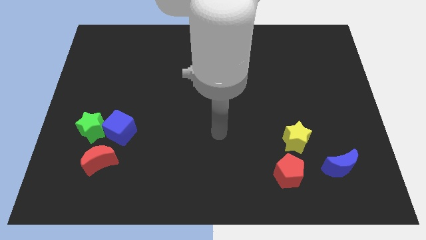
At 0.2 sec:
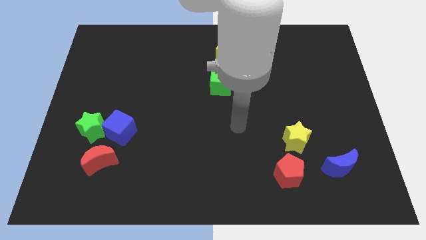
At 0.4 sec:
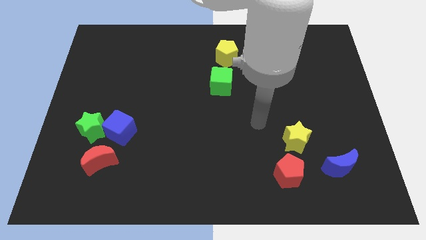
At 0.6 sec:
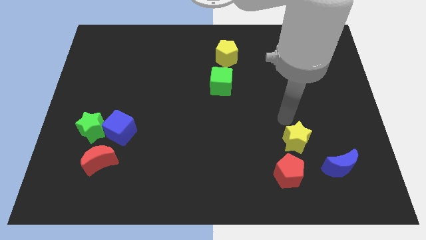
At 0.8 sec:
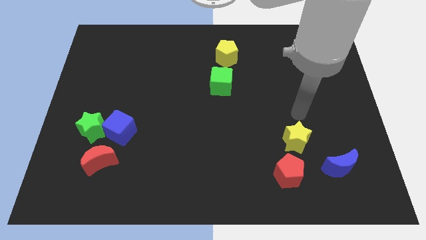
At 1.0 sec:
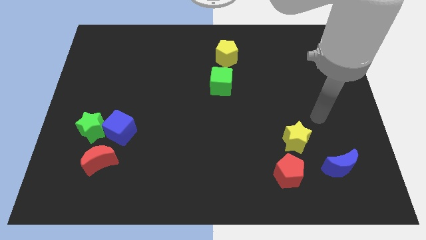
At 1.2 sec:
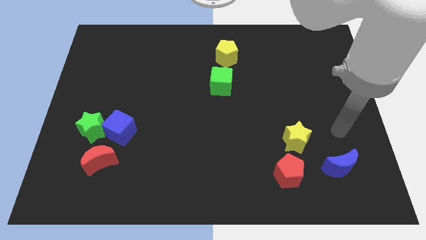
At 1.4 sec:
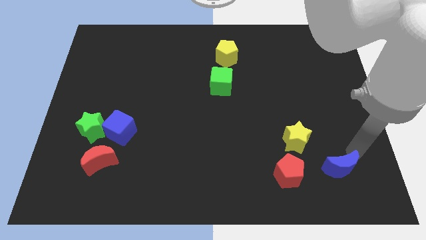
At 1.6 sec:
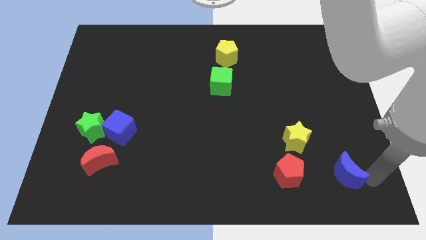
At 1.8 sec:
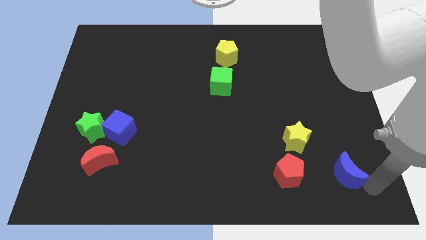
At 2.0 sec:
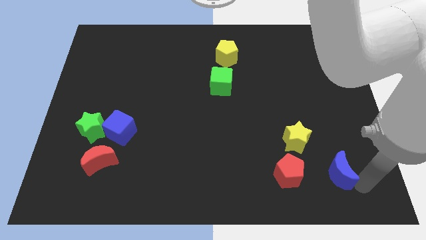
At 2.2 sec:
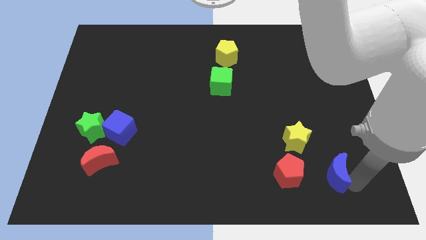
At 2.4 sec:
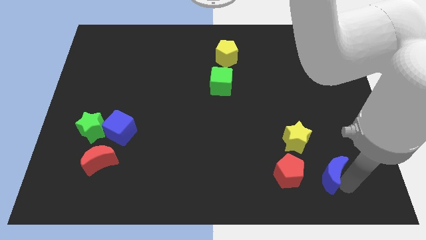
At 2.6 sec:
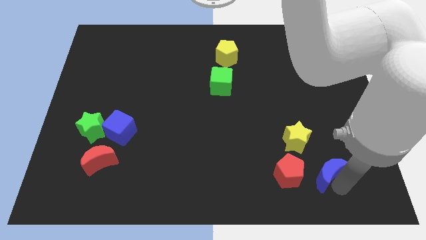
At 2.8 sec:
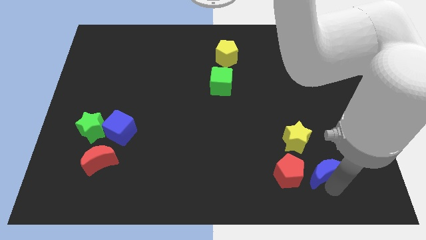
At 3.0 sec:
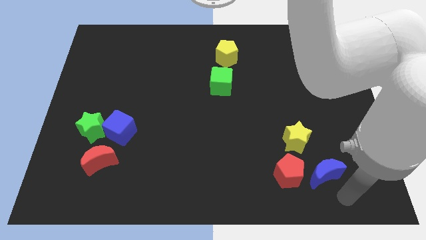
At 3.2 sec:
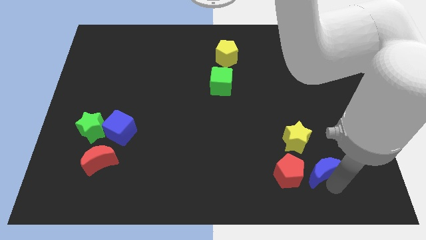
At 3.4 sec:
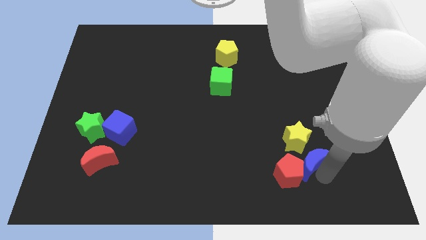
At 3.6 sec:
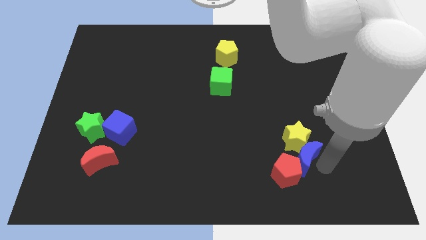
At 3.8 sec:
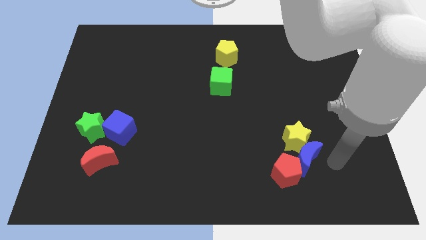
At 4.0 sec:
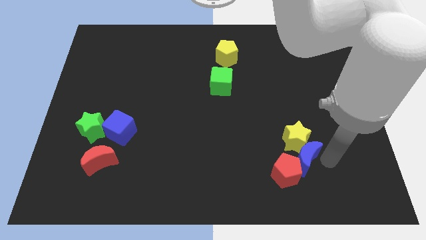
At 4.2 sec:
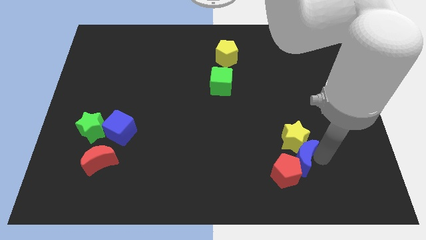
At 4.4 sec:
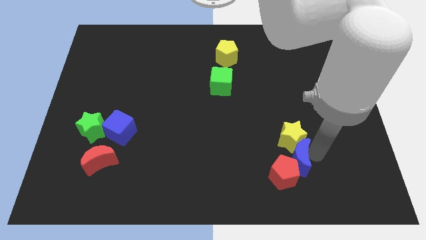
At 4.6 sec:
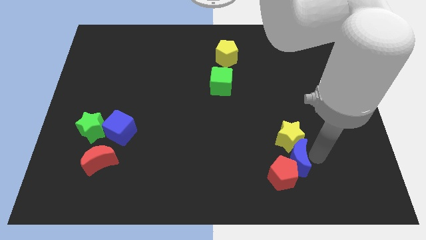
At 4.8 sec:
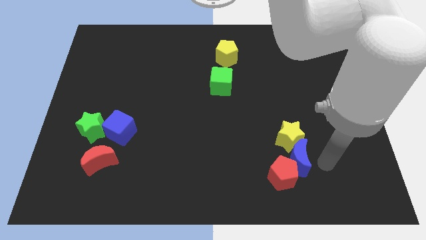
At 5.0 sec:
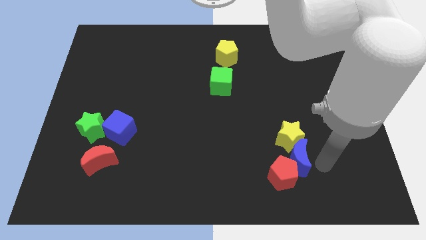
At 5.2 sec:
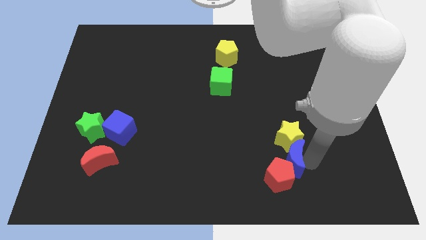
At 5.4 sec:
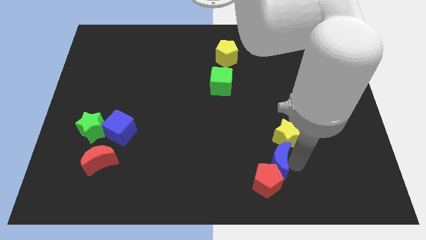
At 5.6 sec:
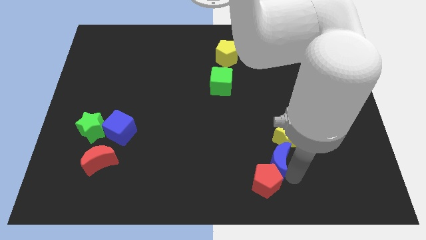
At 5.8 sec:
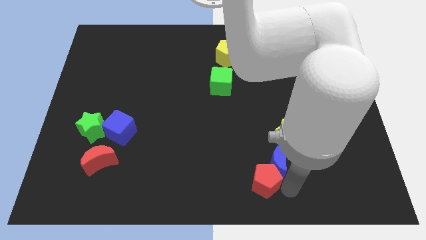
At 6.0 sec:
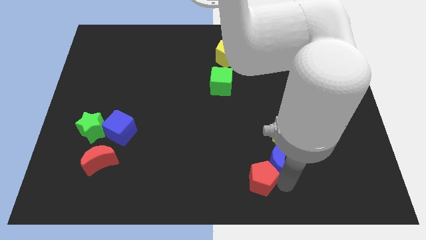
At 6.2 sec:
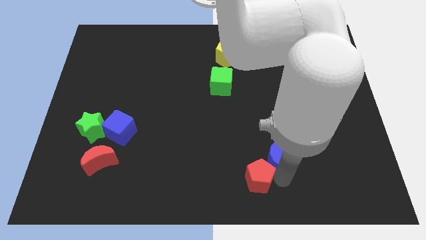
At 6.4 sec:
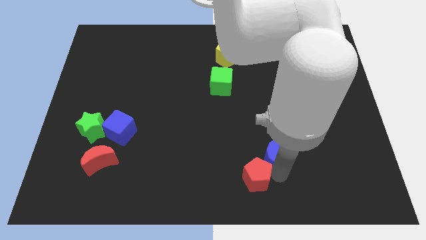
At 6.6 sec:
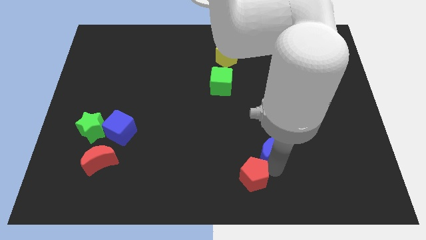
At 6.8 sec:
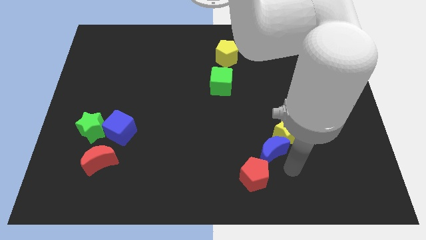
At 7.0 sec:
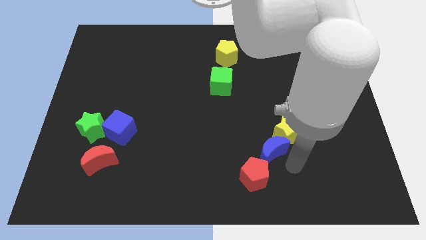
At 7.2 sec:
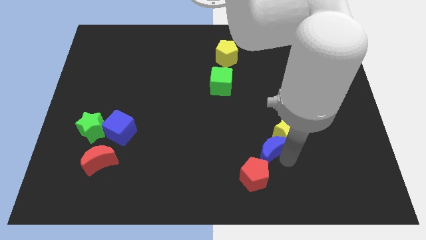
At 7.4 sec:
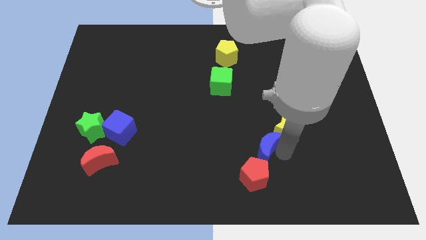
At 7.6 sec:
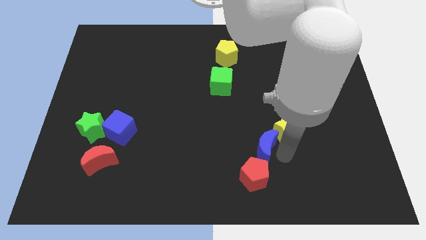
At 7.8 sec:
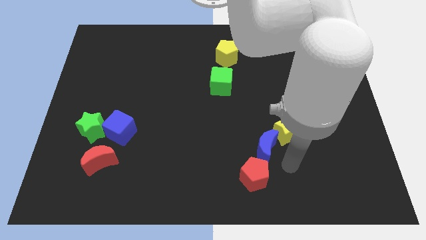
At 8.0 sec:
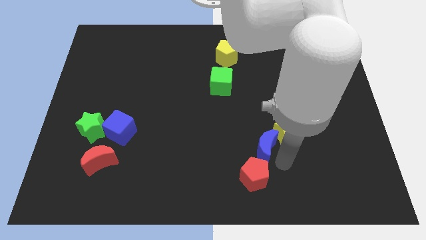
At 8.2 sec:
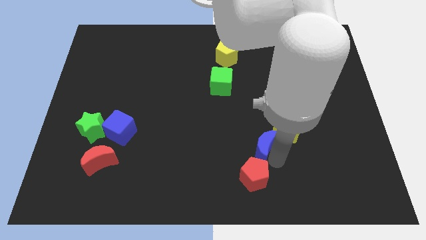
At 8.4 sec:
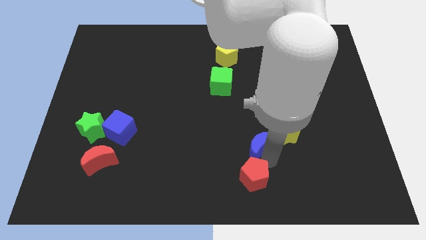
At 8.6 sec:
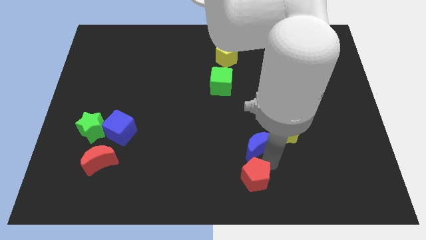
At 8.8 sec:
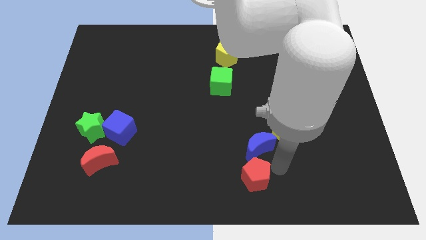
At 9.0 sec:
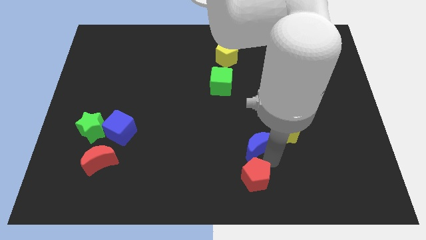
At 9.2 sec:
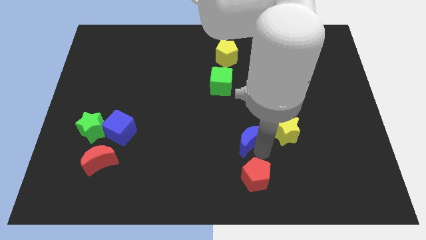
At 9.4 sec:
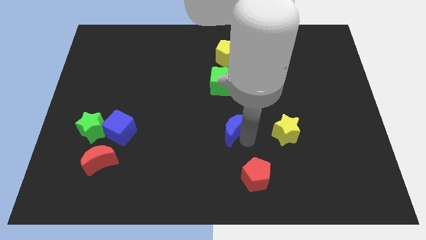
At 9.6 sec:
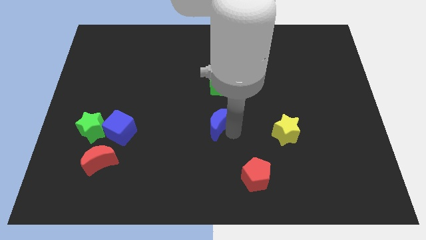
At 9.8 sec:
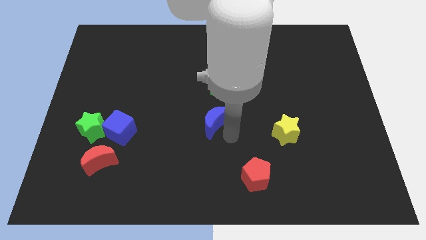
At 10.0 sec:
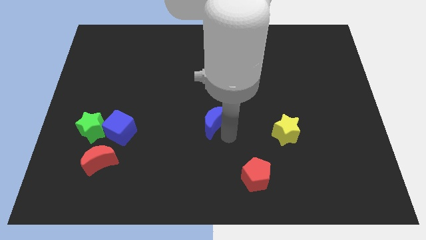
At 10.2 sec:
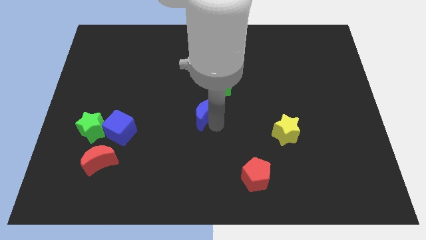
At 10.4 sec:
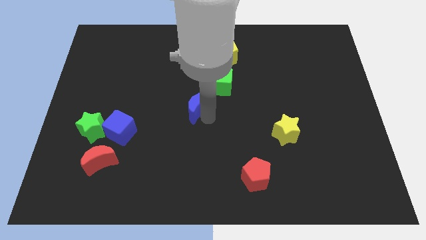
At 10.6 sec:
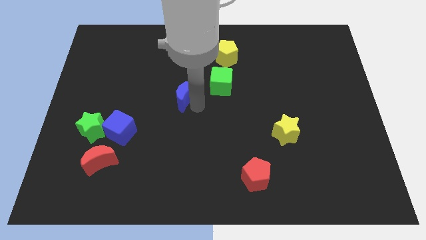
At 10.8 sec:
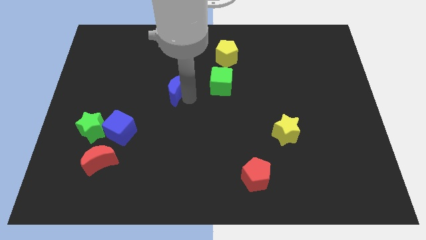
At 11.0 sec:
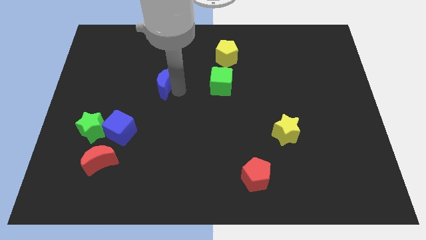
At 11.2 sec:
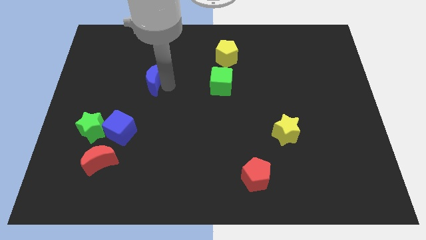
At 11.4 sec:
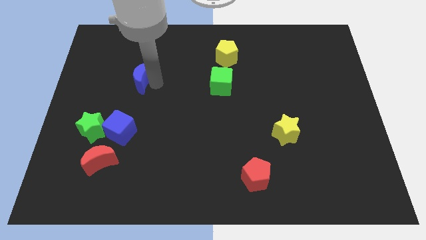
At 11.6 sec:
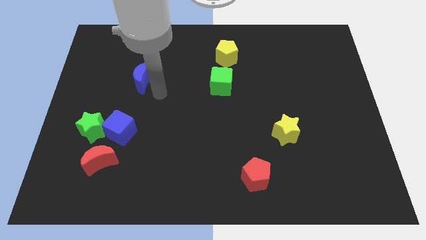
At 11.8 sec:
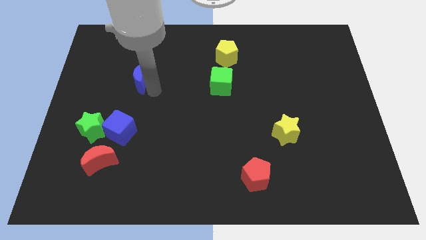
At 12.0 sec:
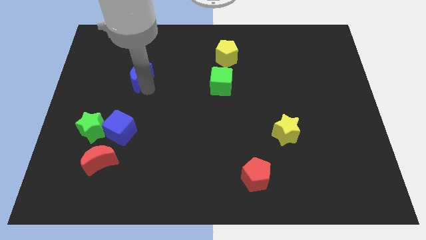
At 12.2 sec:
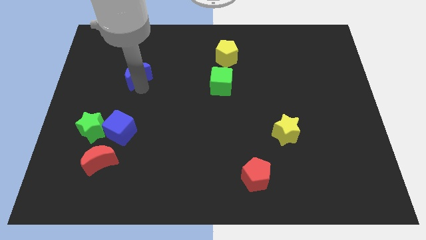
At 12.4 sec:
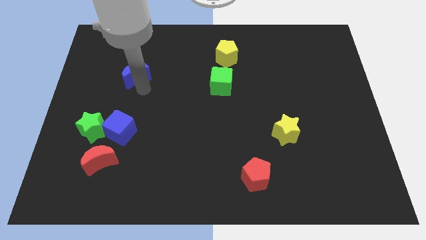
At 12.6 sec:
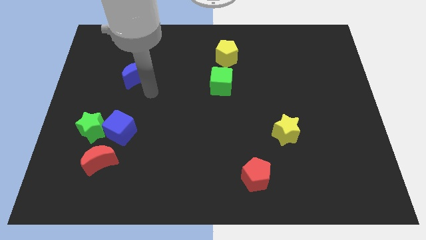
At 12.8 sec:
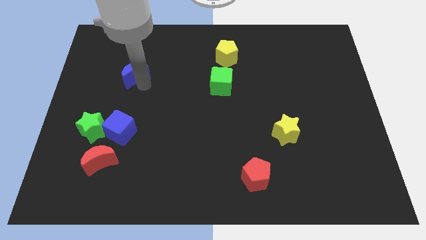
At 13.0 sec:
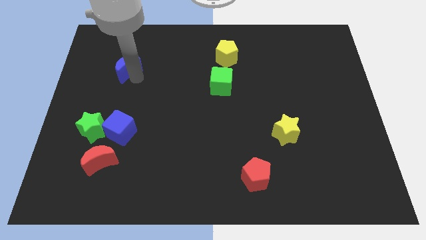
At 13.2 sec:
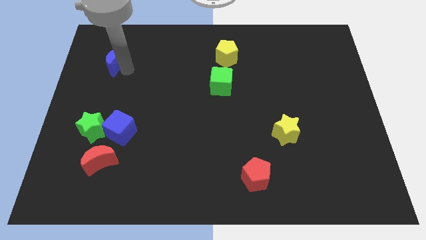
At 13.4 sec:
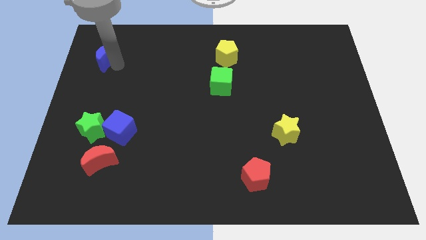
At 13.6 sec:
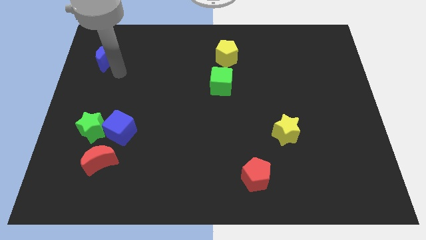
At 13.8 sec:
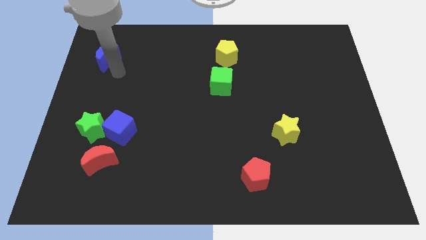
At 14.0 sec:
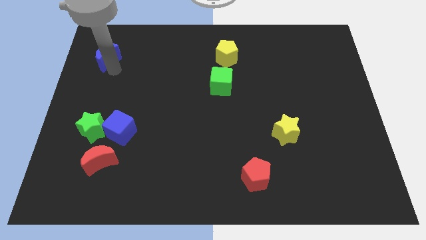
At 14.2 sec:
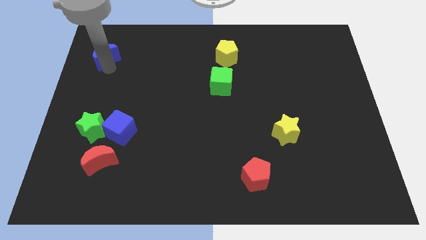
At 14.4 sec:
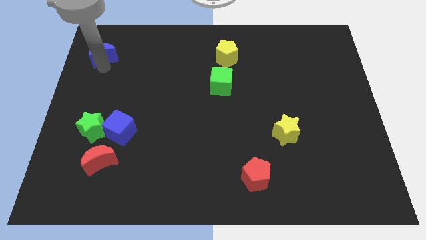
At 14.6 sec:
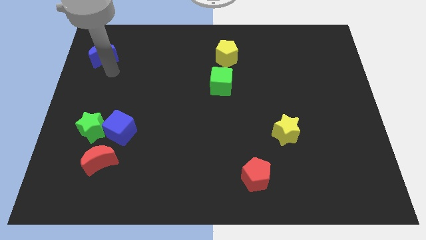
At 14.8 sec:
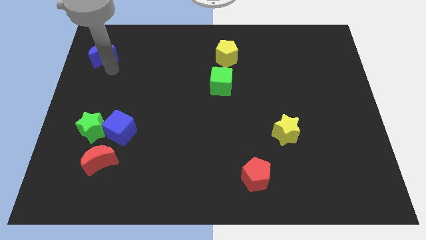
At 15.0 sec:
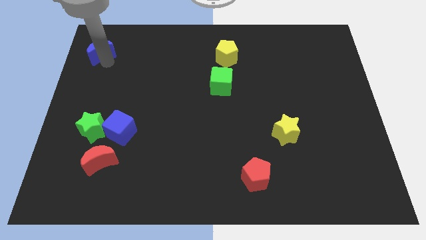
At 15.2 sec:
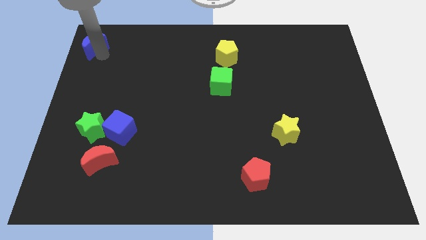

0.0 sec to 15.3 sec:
slide the blue moon to the upper left corner
